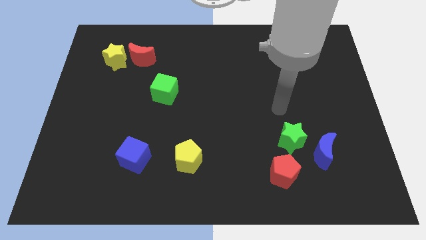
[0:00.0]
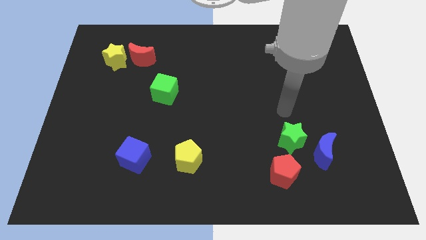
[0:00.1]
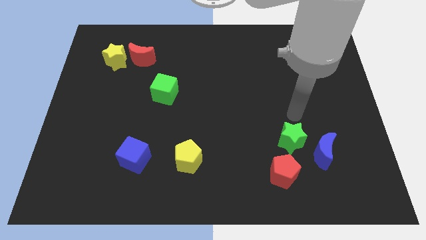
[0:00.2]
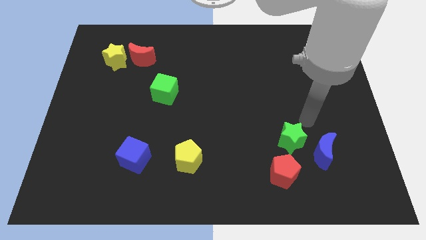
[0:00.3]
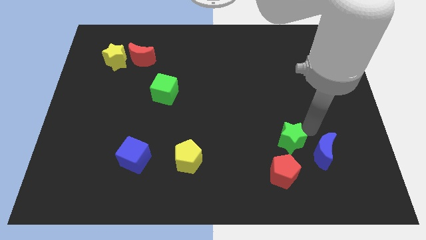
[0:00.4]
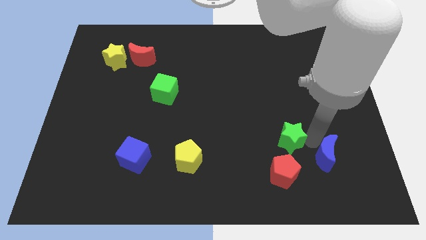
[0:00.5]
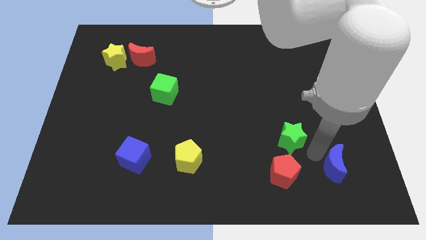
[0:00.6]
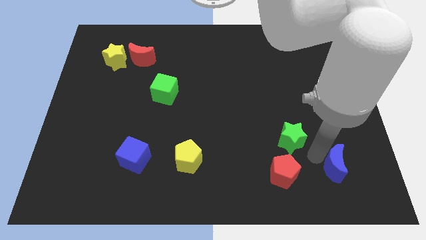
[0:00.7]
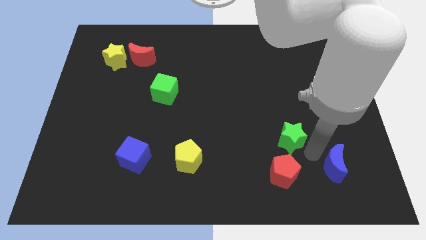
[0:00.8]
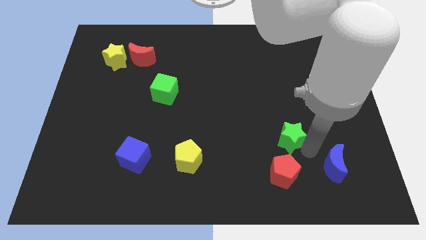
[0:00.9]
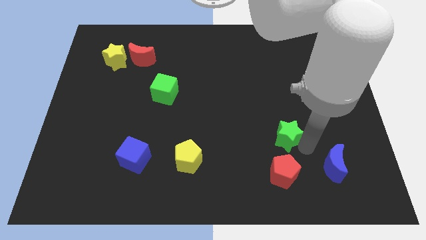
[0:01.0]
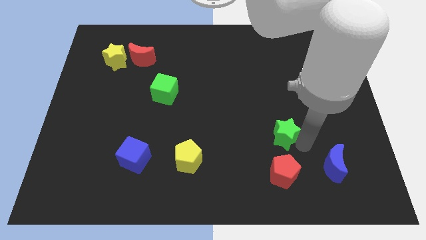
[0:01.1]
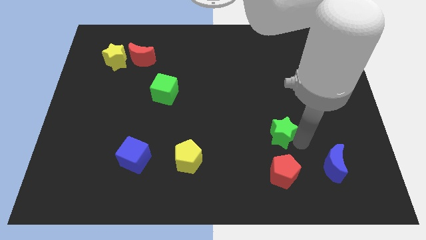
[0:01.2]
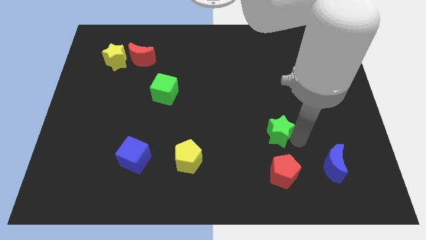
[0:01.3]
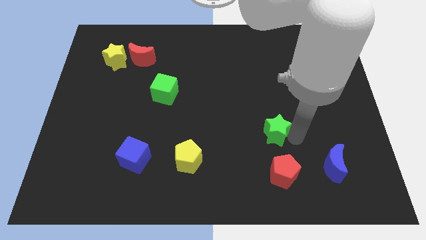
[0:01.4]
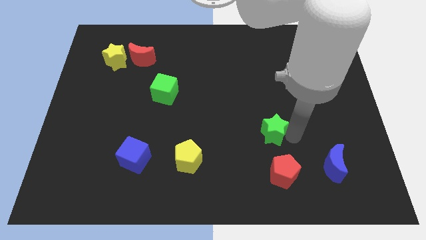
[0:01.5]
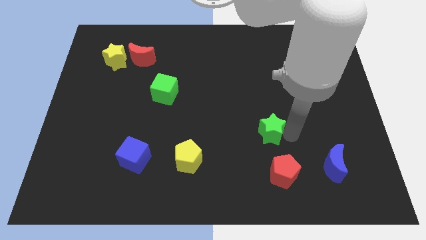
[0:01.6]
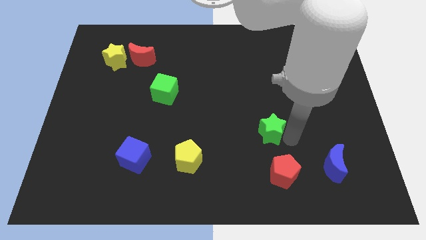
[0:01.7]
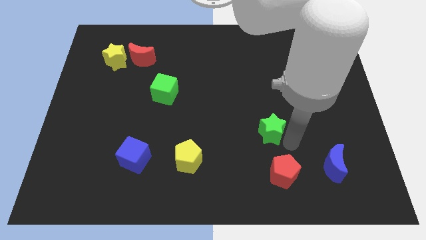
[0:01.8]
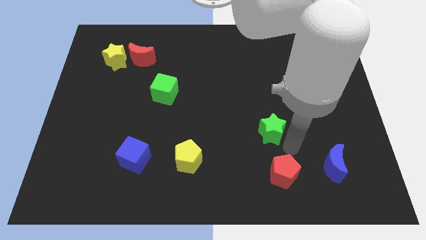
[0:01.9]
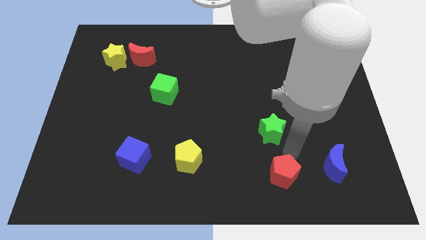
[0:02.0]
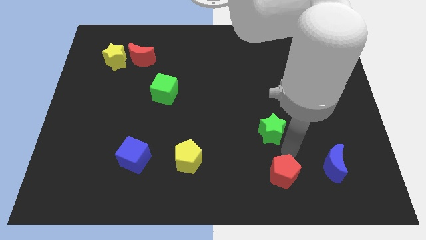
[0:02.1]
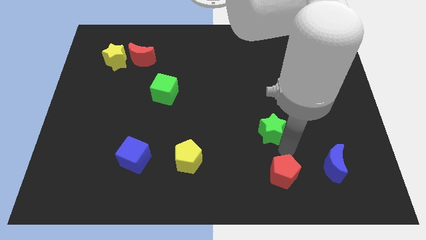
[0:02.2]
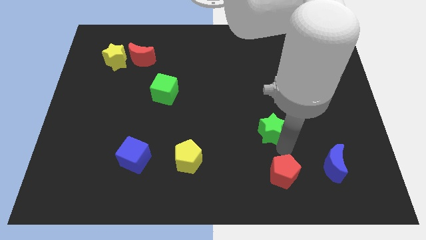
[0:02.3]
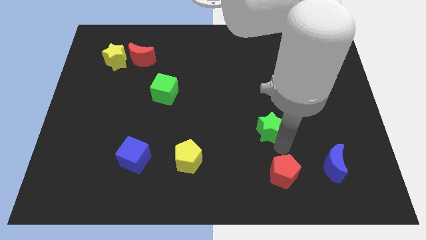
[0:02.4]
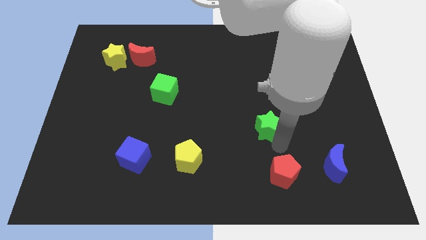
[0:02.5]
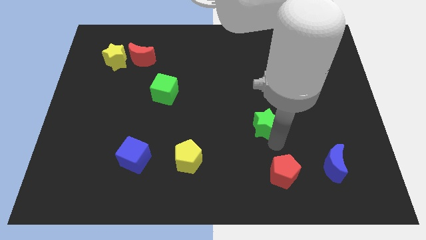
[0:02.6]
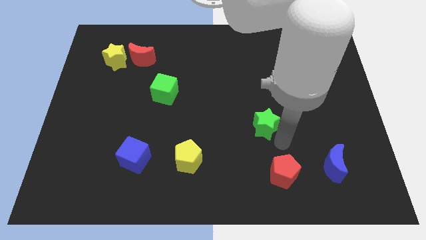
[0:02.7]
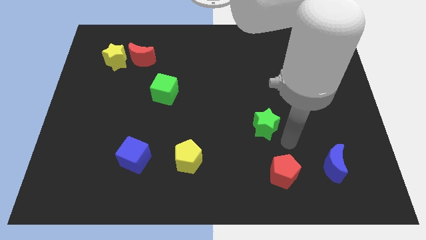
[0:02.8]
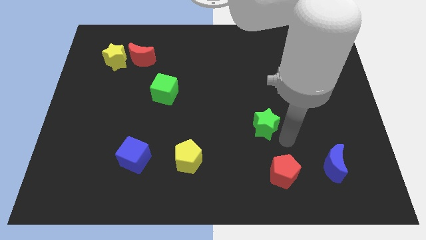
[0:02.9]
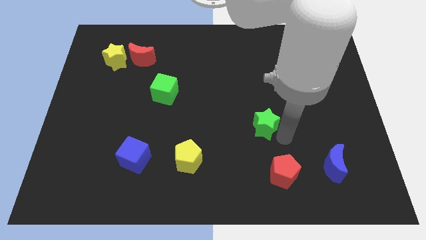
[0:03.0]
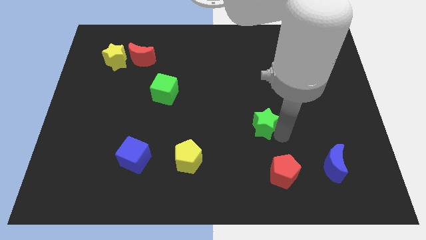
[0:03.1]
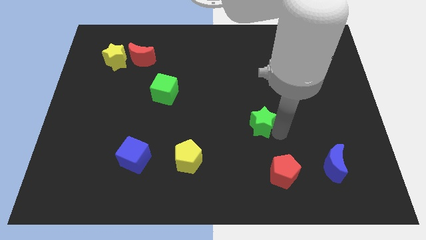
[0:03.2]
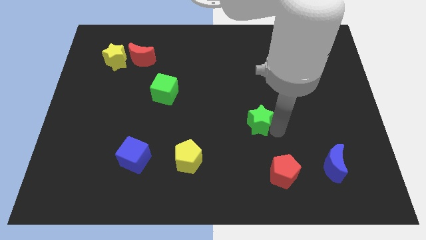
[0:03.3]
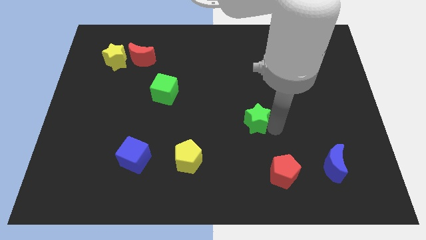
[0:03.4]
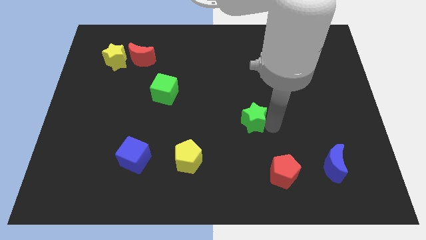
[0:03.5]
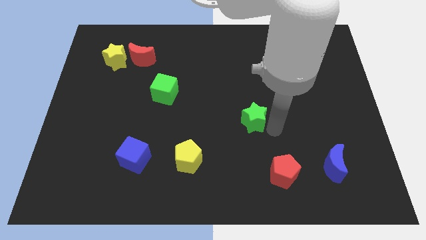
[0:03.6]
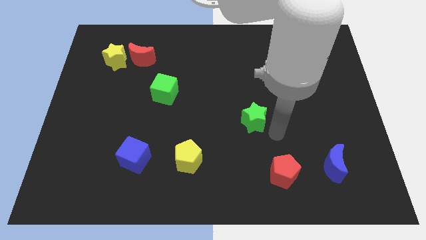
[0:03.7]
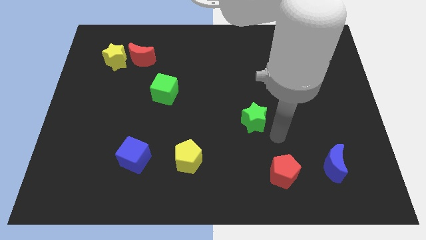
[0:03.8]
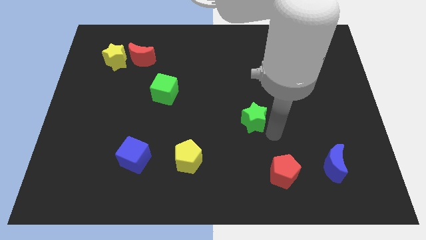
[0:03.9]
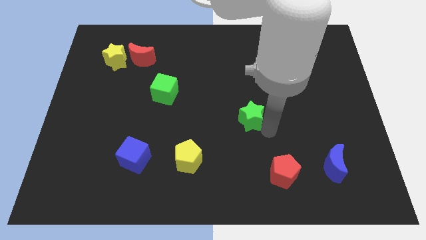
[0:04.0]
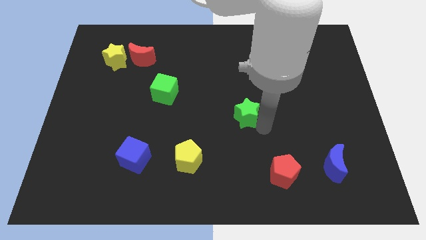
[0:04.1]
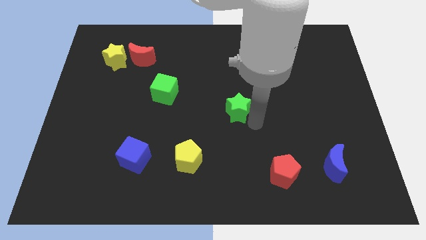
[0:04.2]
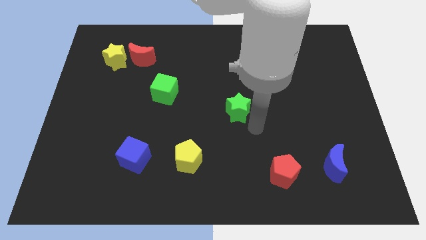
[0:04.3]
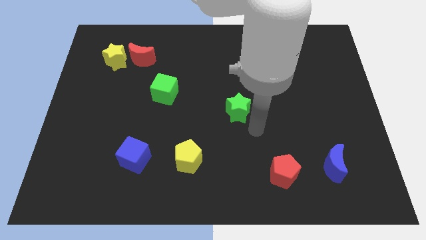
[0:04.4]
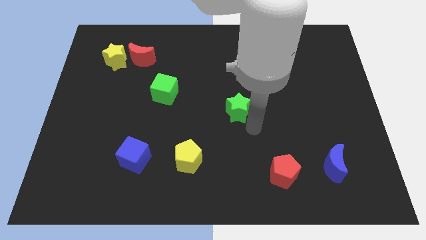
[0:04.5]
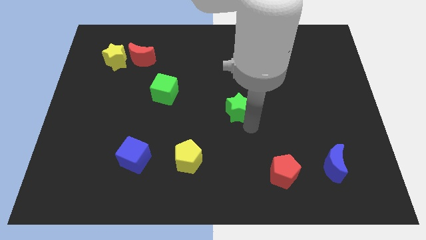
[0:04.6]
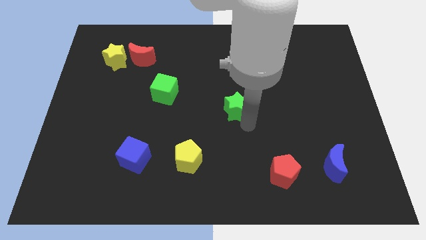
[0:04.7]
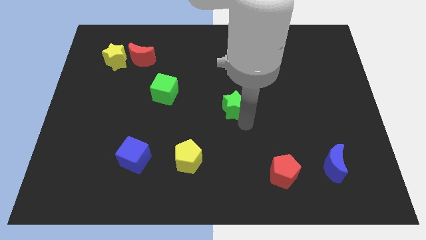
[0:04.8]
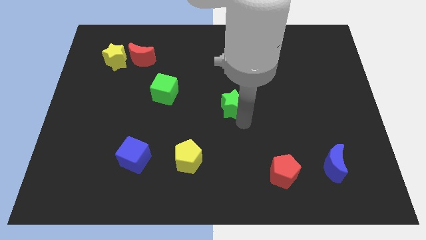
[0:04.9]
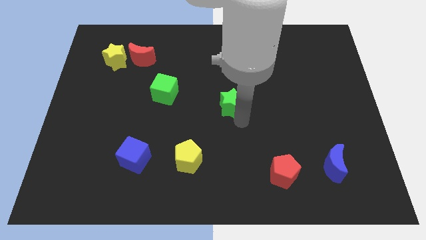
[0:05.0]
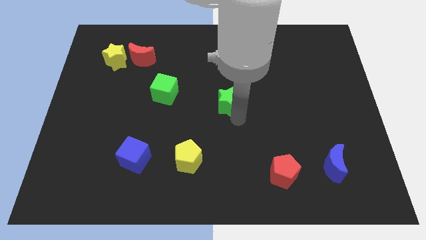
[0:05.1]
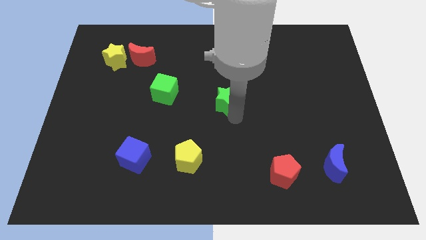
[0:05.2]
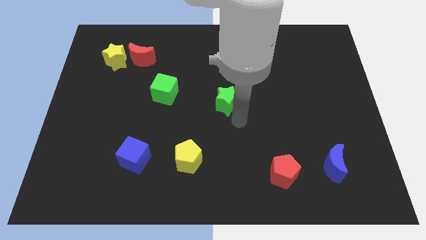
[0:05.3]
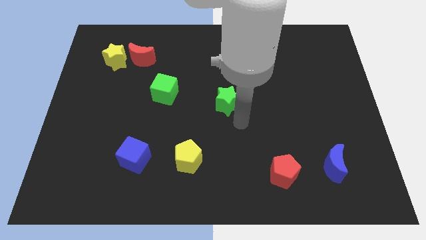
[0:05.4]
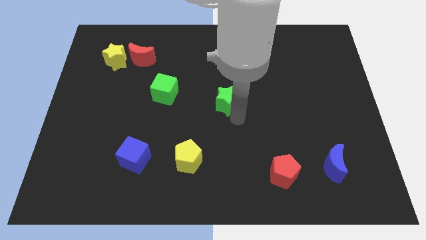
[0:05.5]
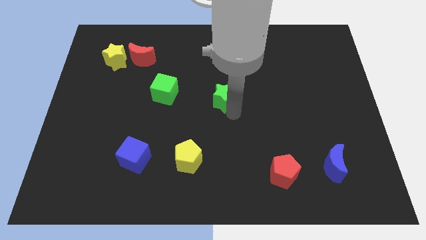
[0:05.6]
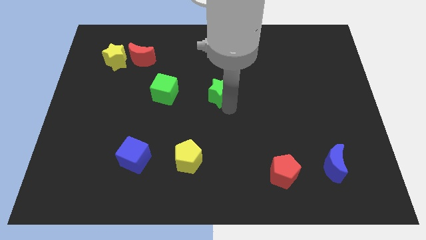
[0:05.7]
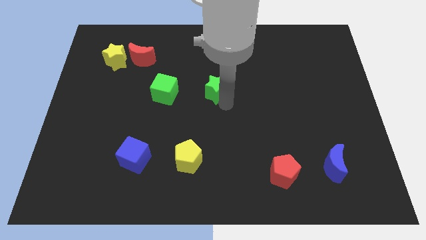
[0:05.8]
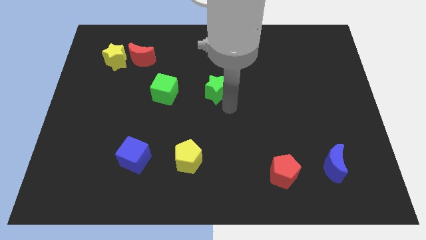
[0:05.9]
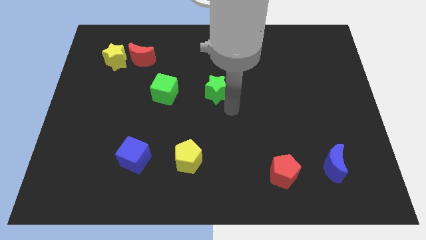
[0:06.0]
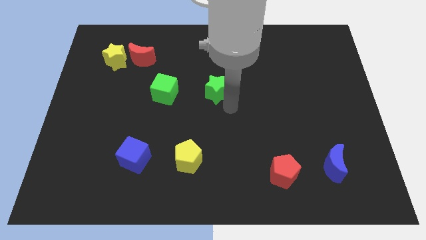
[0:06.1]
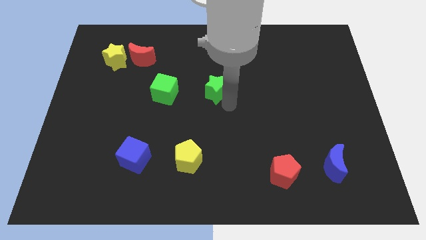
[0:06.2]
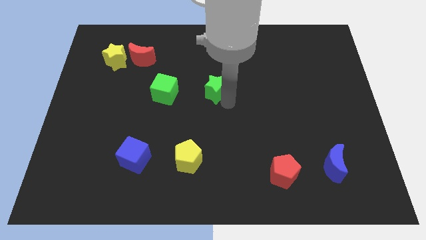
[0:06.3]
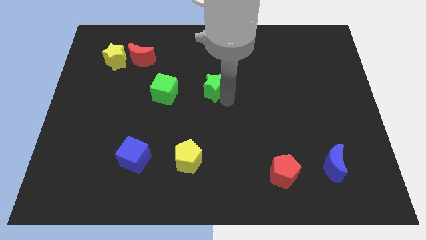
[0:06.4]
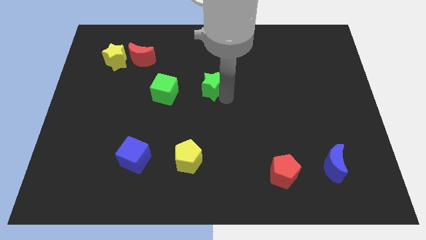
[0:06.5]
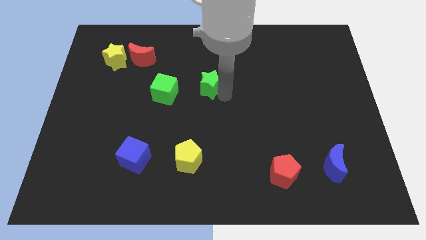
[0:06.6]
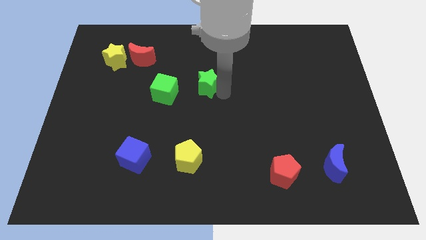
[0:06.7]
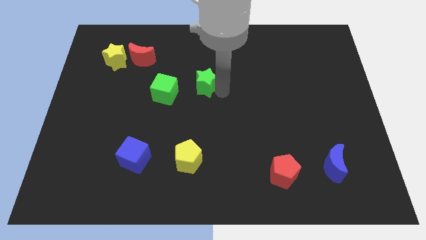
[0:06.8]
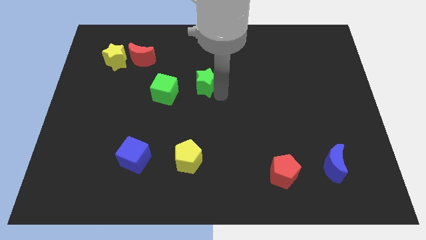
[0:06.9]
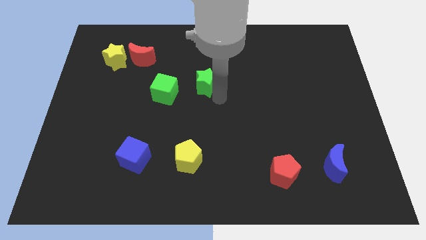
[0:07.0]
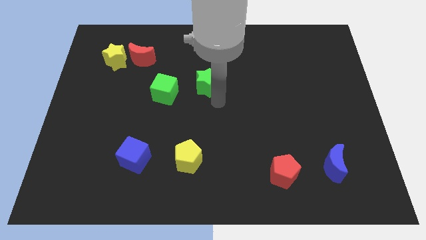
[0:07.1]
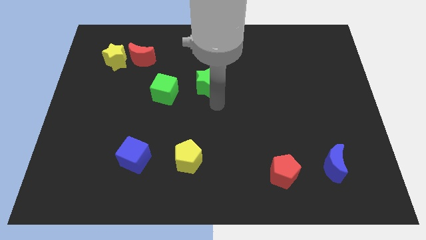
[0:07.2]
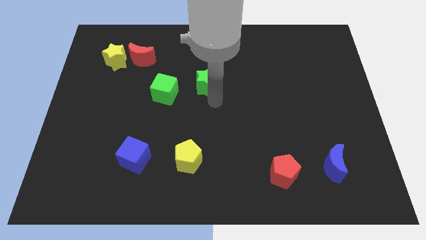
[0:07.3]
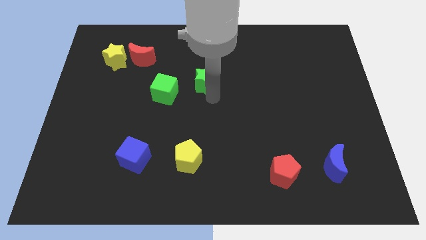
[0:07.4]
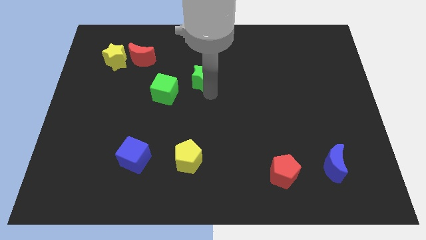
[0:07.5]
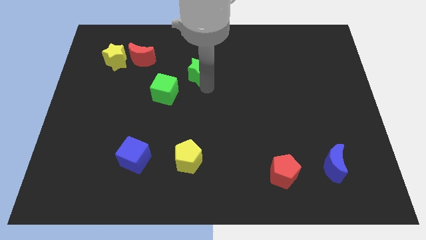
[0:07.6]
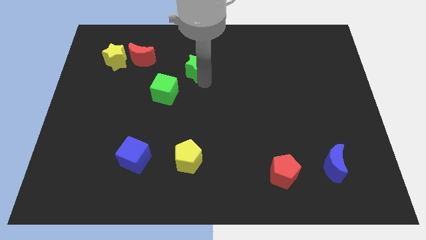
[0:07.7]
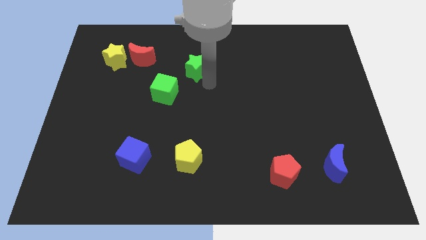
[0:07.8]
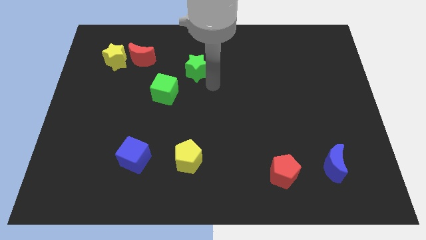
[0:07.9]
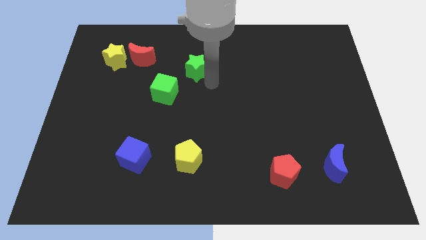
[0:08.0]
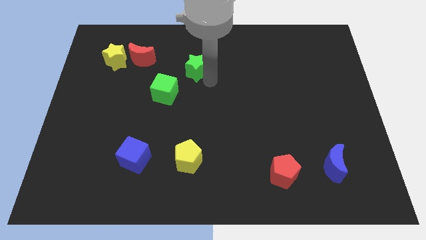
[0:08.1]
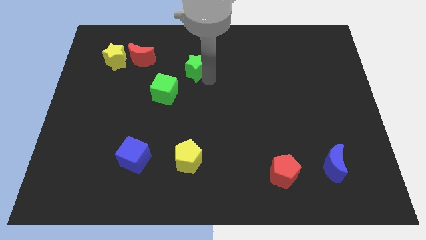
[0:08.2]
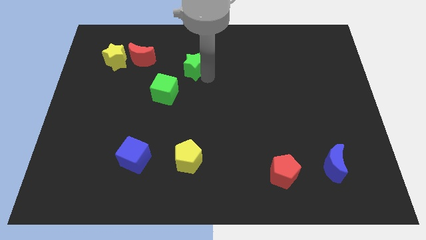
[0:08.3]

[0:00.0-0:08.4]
push the green star right of the red moon

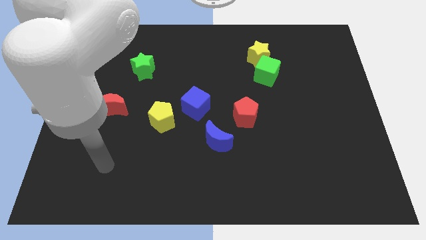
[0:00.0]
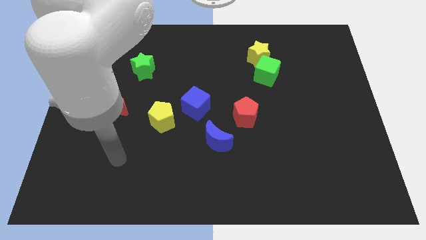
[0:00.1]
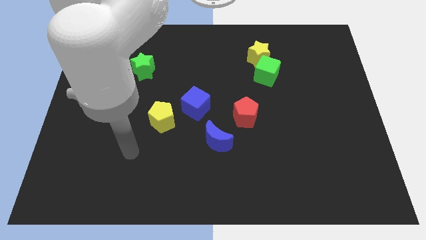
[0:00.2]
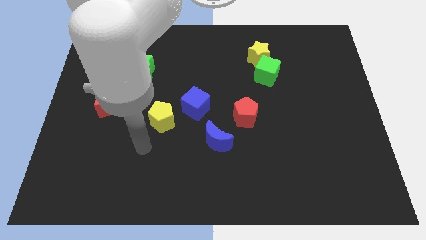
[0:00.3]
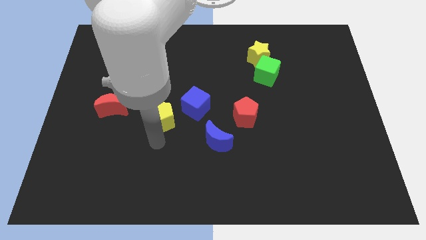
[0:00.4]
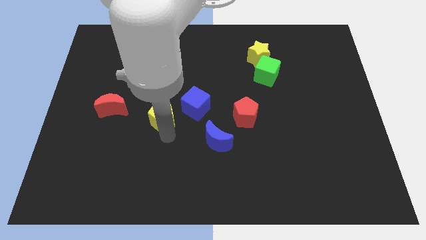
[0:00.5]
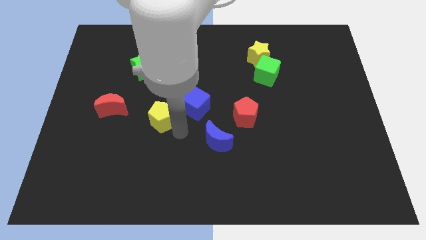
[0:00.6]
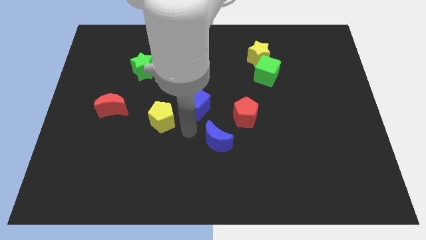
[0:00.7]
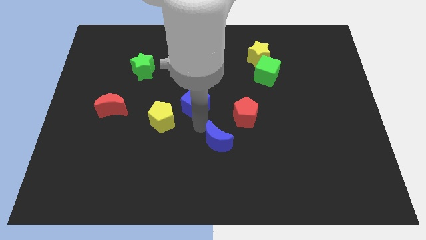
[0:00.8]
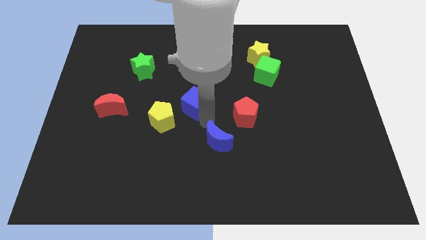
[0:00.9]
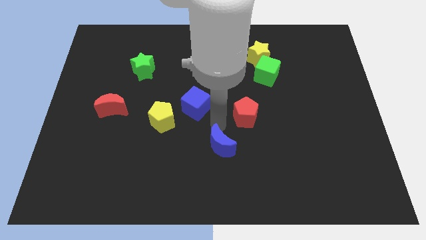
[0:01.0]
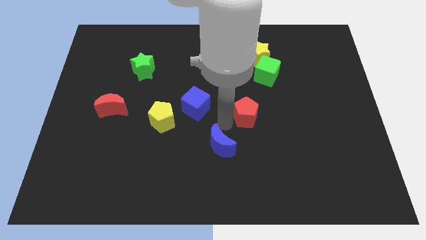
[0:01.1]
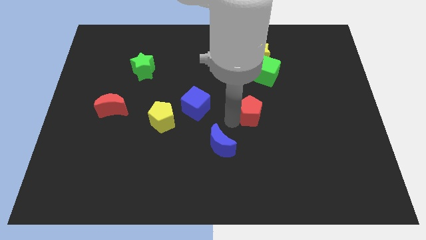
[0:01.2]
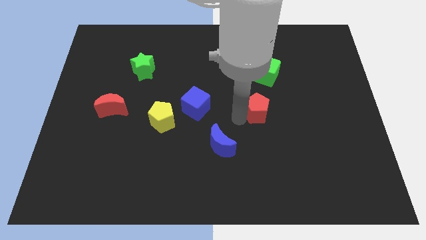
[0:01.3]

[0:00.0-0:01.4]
push the red pentagon to the bottom of the green cube
